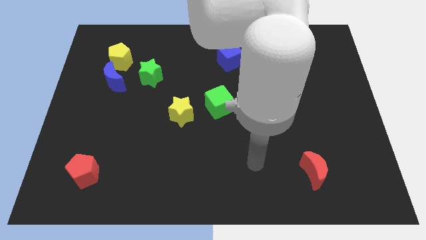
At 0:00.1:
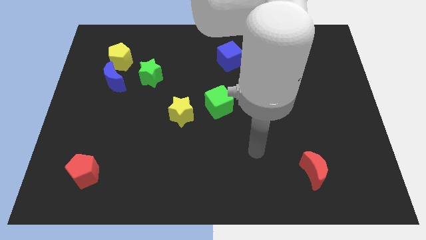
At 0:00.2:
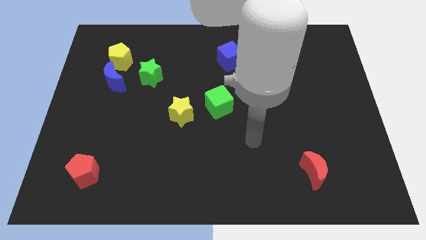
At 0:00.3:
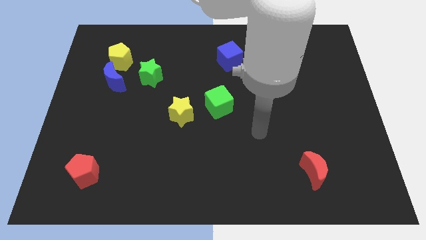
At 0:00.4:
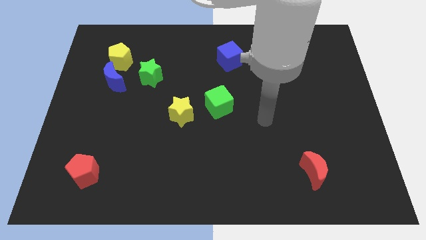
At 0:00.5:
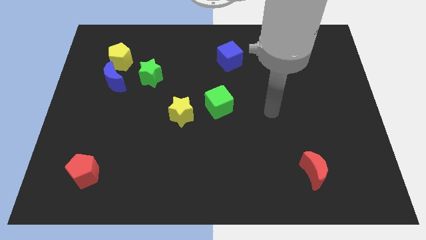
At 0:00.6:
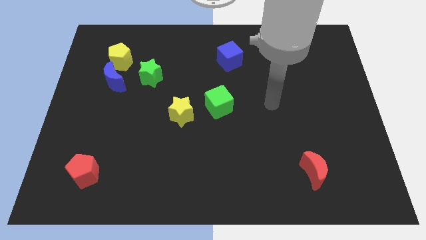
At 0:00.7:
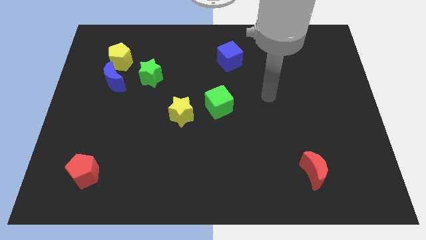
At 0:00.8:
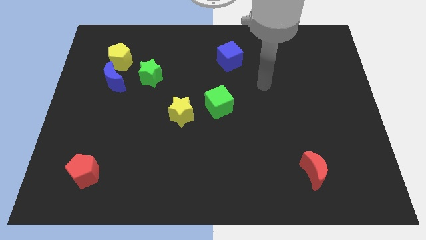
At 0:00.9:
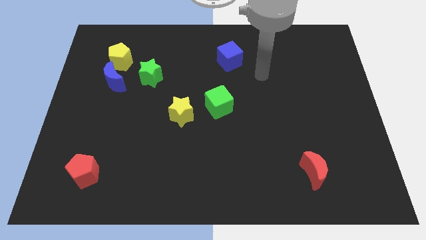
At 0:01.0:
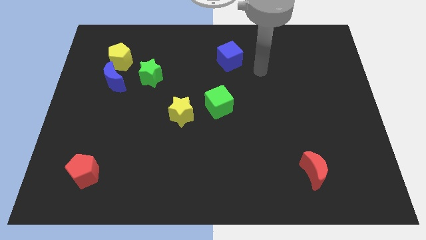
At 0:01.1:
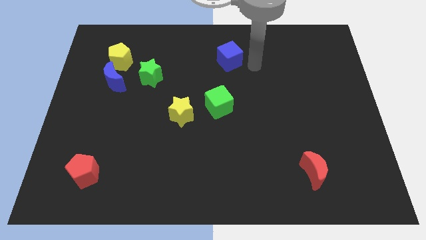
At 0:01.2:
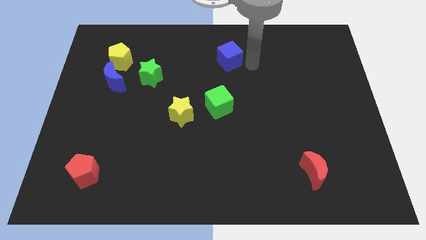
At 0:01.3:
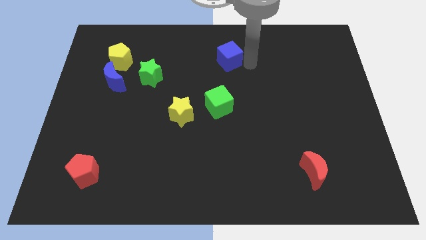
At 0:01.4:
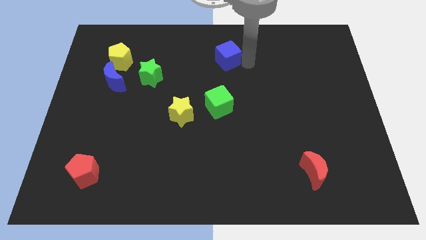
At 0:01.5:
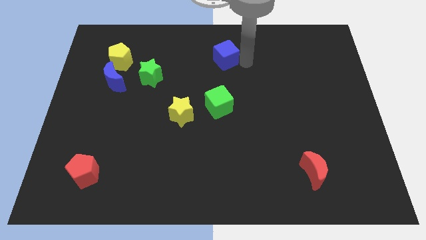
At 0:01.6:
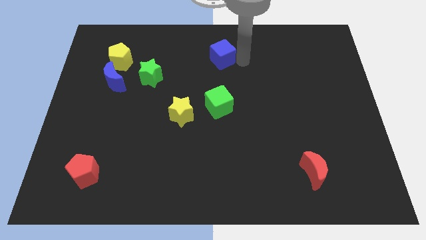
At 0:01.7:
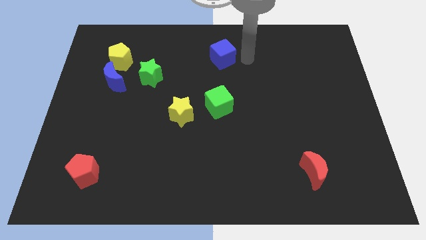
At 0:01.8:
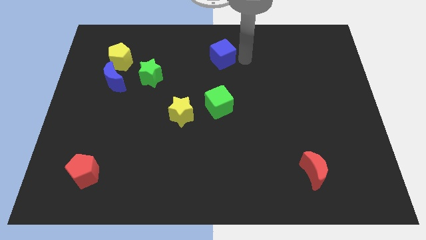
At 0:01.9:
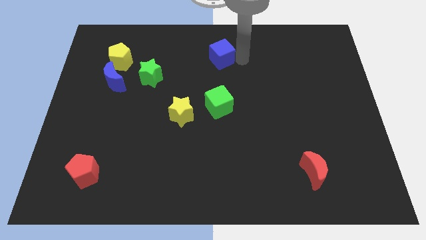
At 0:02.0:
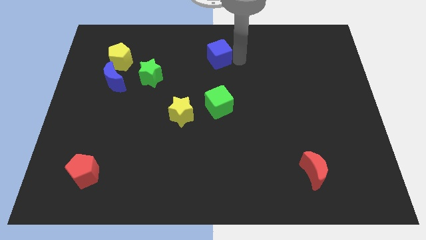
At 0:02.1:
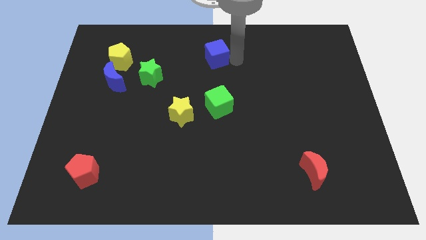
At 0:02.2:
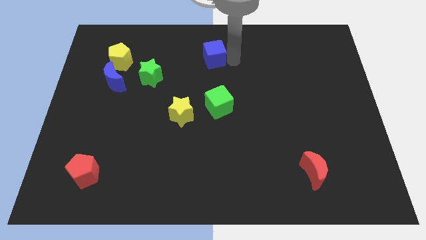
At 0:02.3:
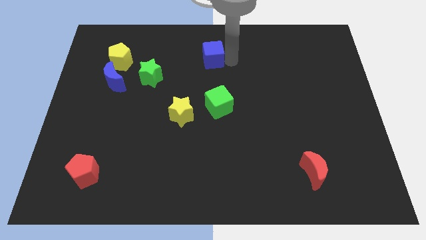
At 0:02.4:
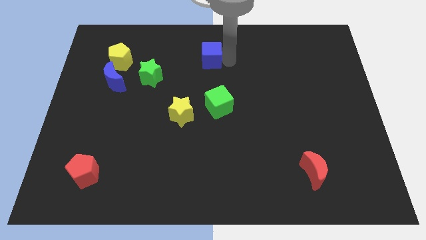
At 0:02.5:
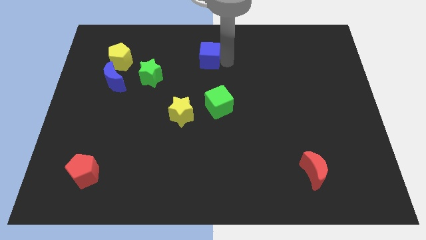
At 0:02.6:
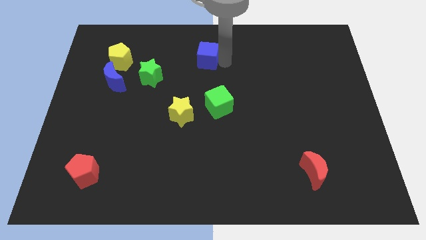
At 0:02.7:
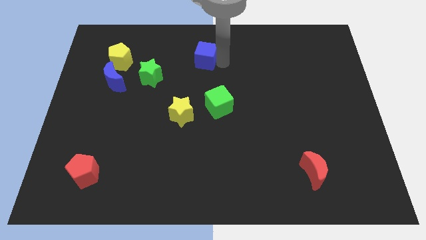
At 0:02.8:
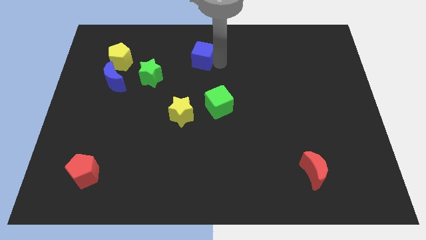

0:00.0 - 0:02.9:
slightly move the blue cube to the left

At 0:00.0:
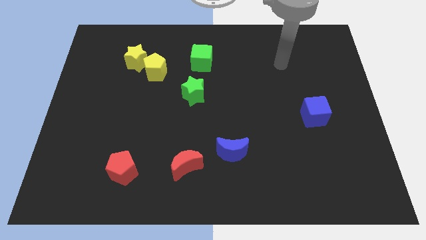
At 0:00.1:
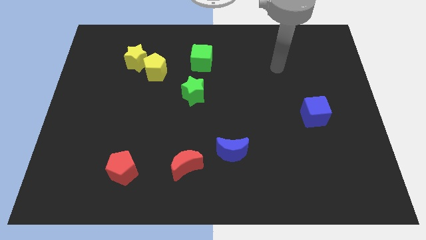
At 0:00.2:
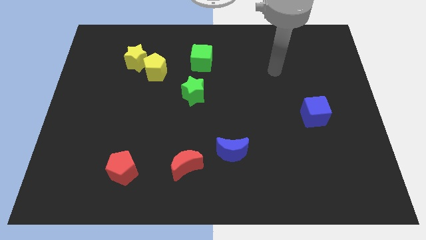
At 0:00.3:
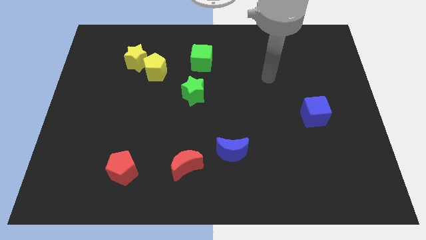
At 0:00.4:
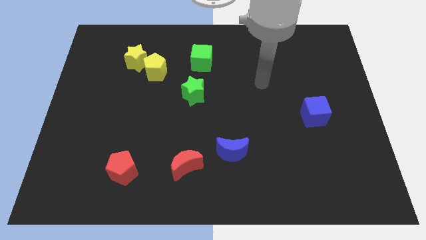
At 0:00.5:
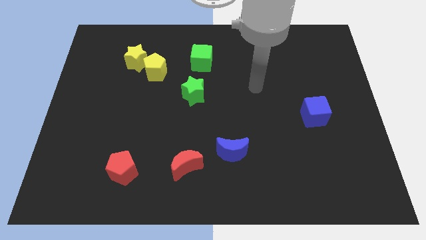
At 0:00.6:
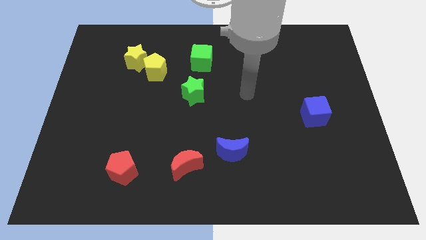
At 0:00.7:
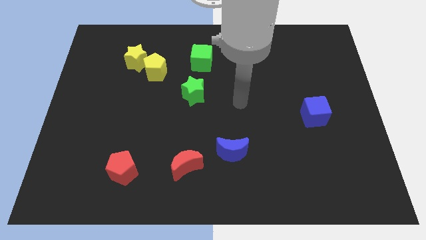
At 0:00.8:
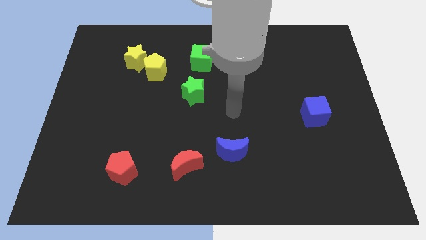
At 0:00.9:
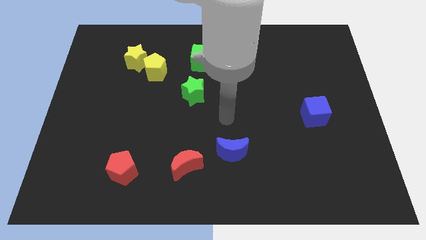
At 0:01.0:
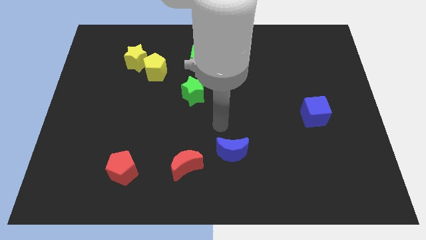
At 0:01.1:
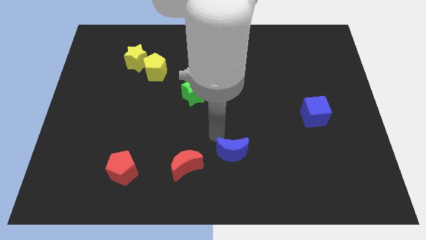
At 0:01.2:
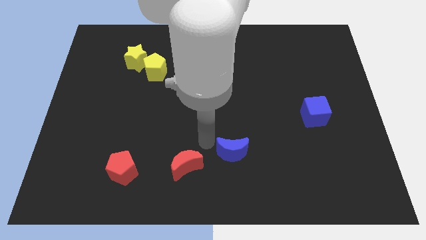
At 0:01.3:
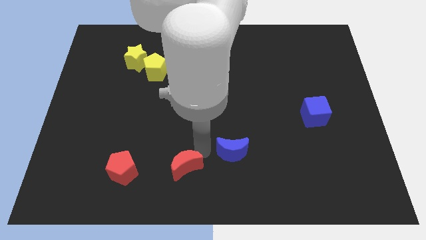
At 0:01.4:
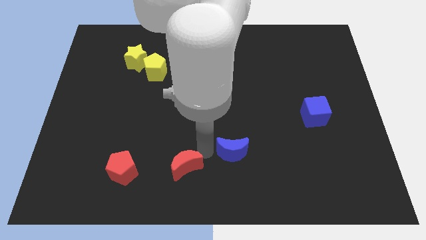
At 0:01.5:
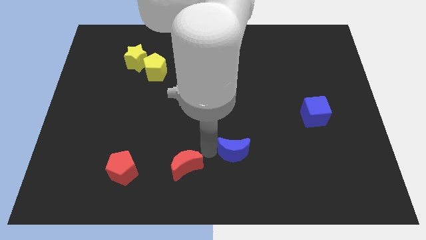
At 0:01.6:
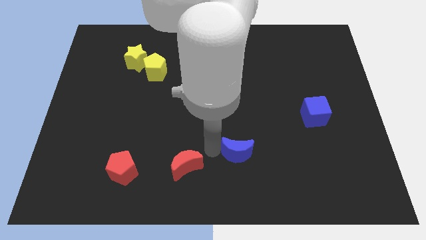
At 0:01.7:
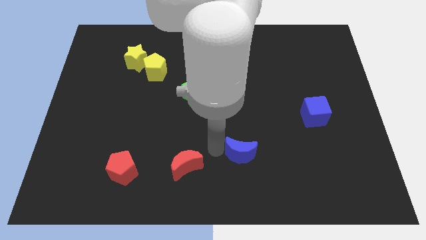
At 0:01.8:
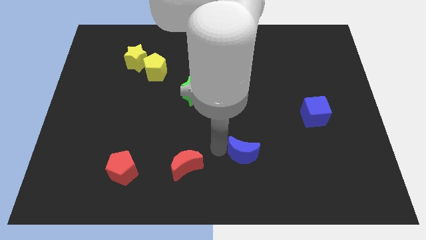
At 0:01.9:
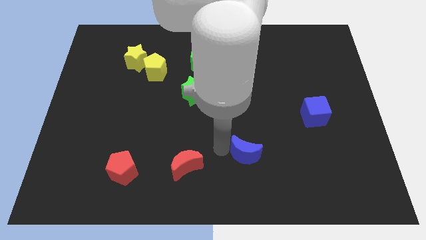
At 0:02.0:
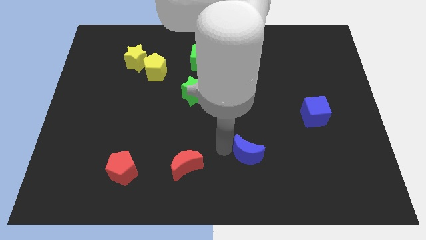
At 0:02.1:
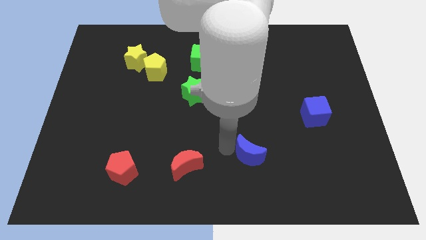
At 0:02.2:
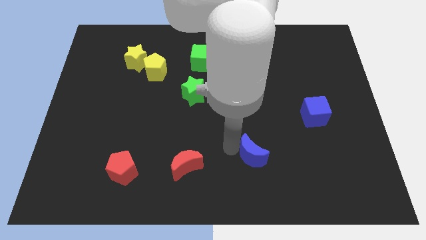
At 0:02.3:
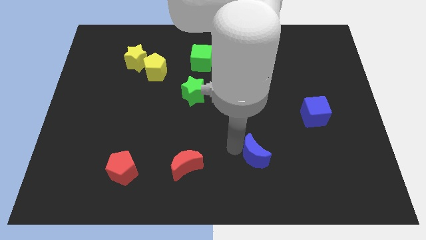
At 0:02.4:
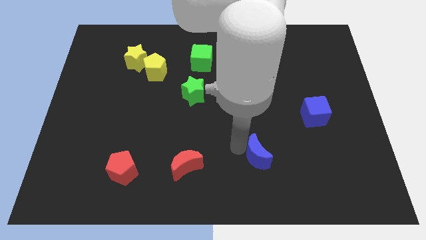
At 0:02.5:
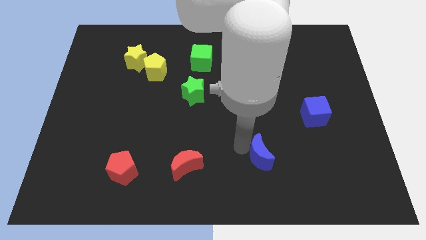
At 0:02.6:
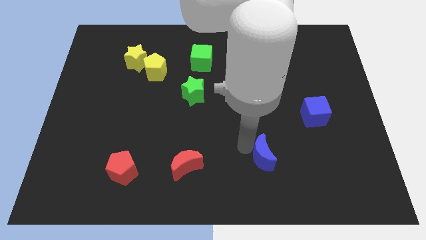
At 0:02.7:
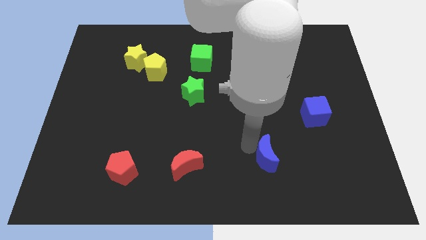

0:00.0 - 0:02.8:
slide the blue moon a little to the right

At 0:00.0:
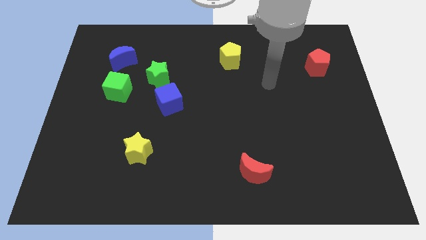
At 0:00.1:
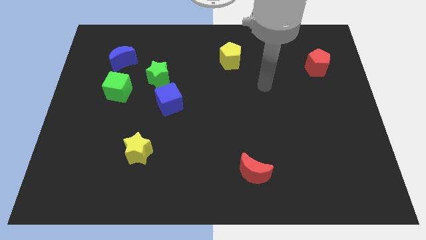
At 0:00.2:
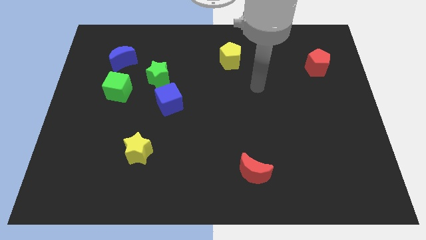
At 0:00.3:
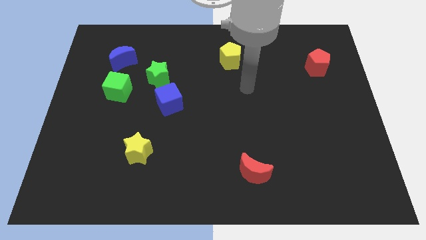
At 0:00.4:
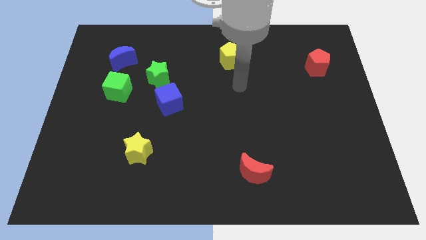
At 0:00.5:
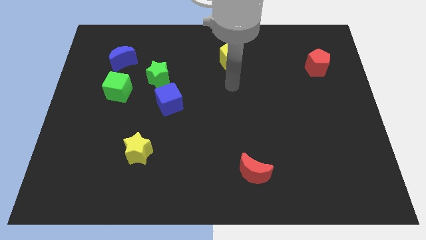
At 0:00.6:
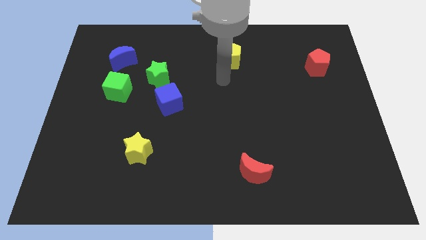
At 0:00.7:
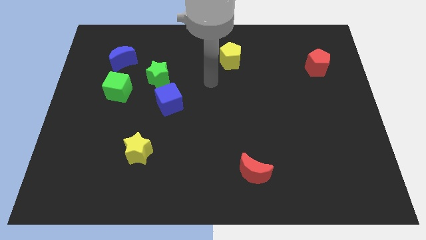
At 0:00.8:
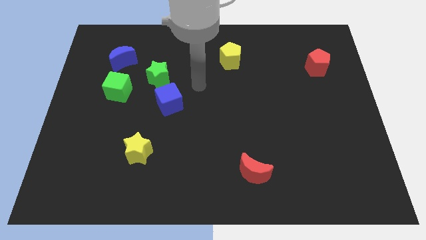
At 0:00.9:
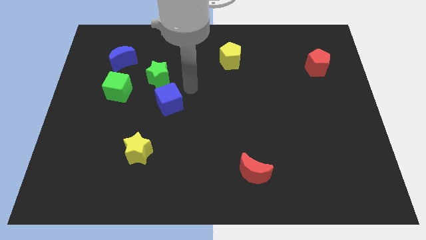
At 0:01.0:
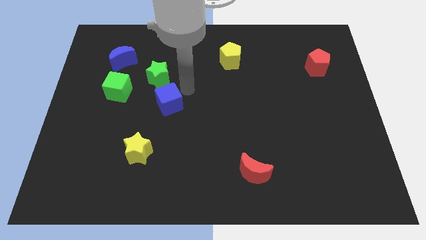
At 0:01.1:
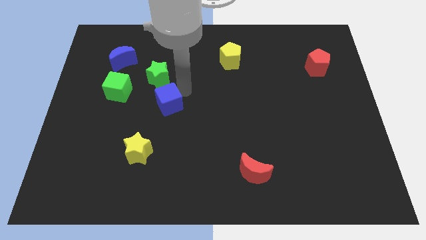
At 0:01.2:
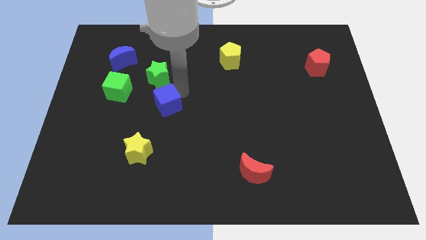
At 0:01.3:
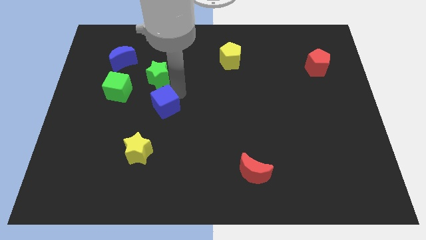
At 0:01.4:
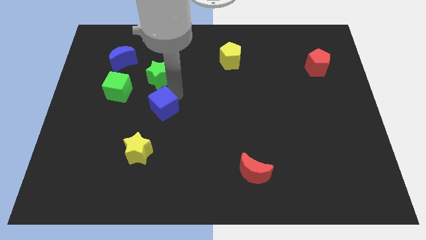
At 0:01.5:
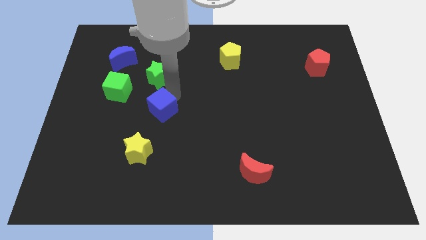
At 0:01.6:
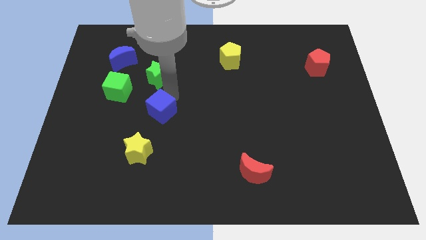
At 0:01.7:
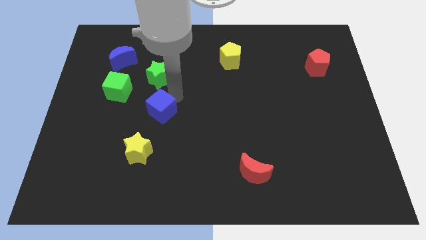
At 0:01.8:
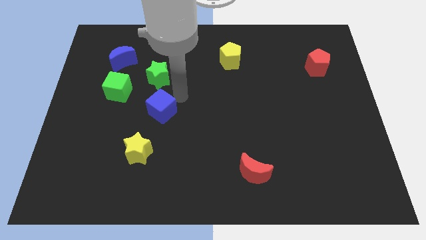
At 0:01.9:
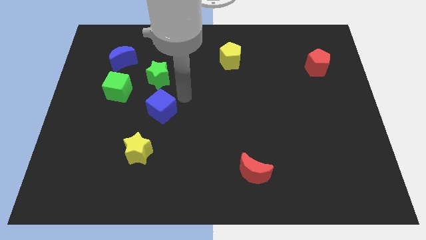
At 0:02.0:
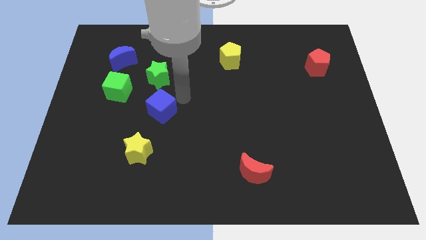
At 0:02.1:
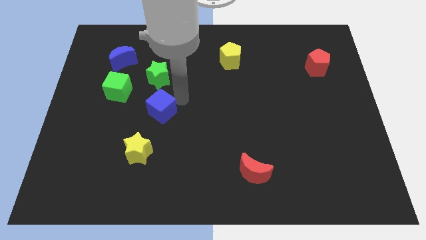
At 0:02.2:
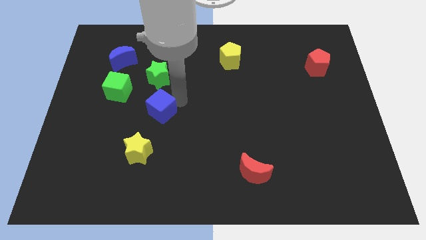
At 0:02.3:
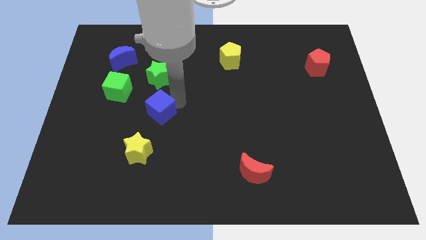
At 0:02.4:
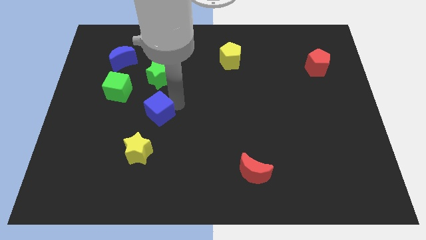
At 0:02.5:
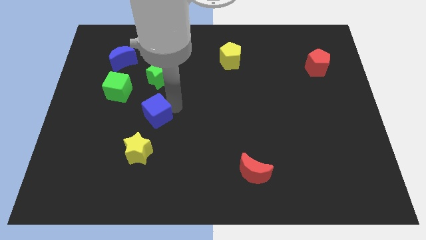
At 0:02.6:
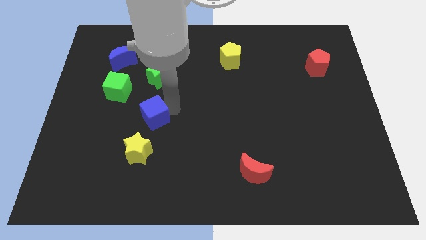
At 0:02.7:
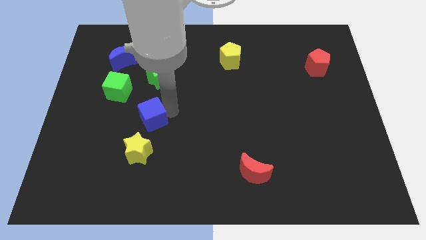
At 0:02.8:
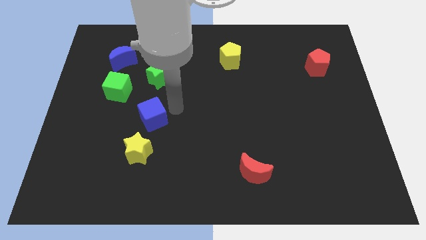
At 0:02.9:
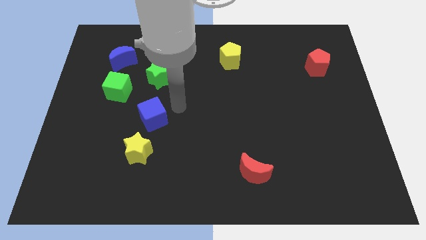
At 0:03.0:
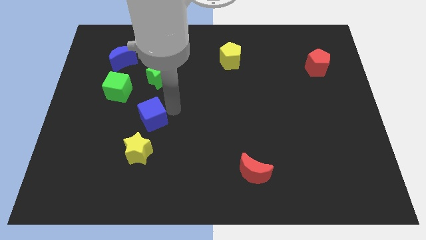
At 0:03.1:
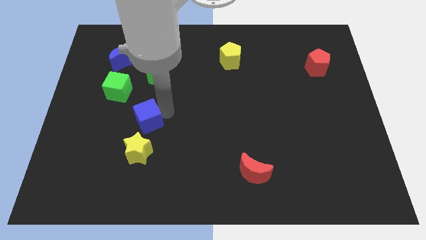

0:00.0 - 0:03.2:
slide the blue cube diagonally down and to the left somewhat
